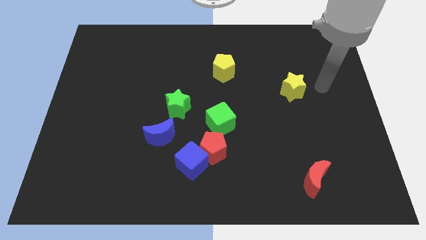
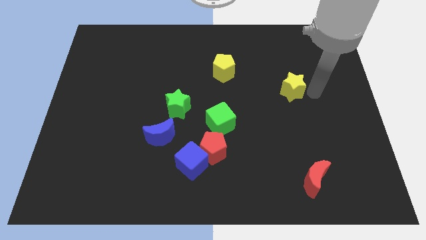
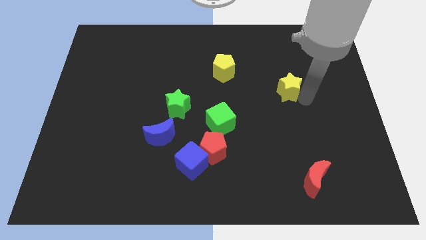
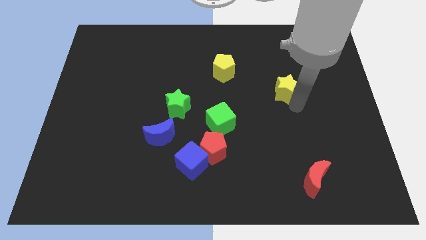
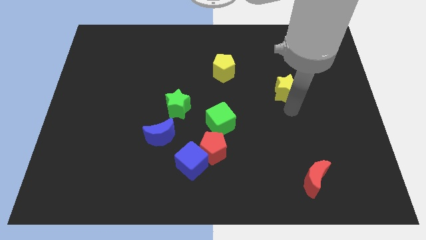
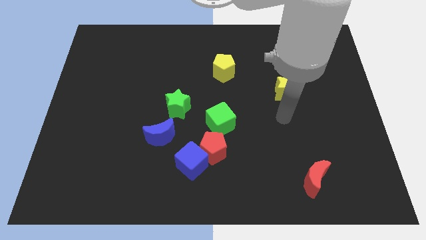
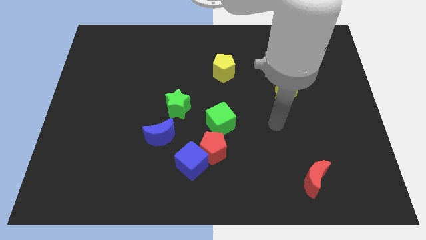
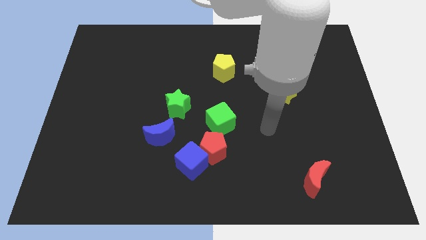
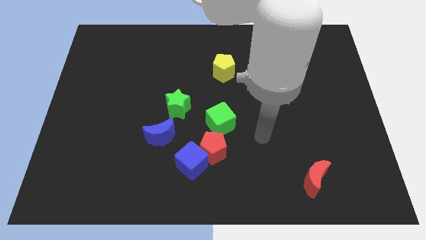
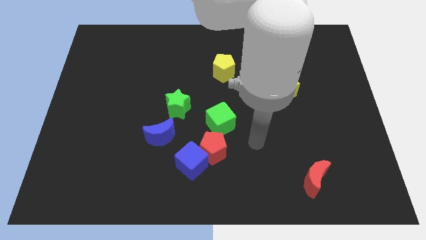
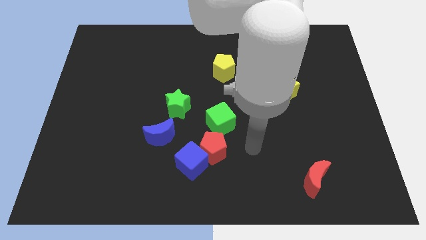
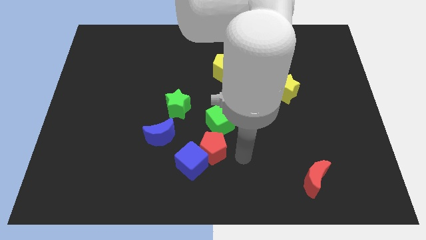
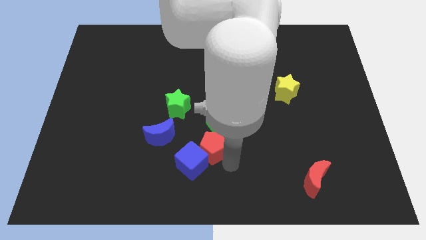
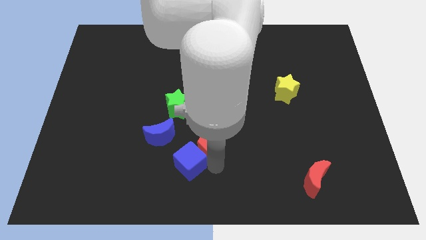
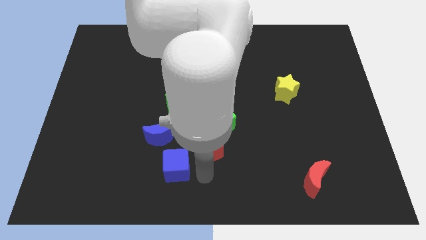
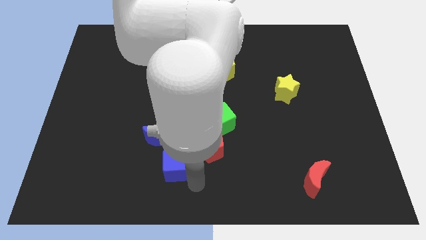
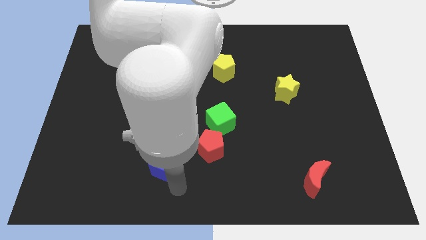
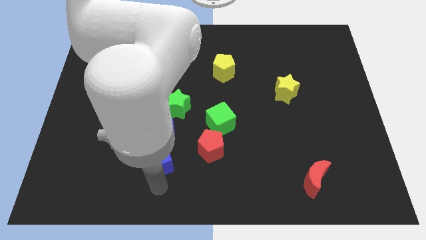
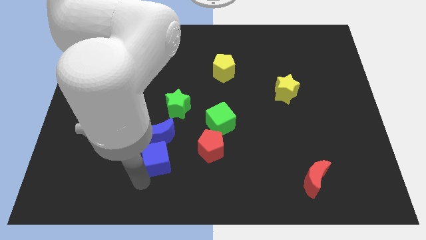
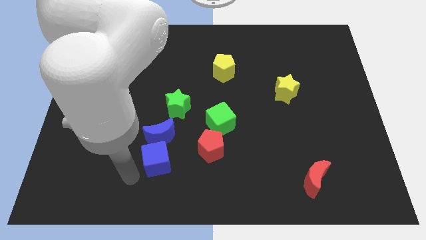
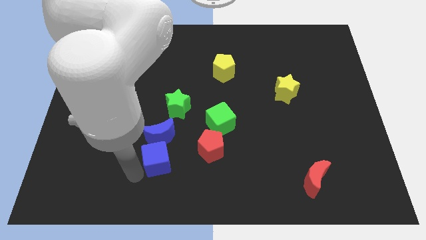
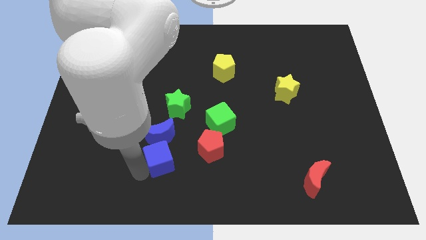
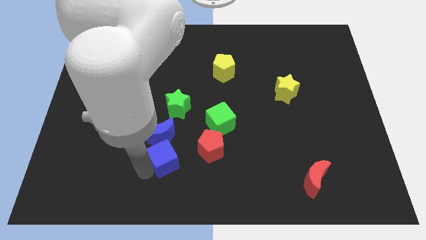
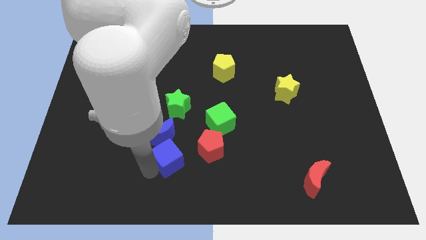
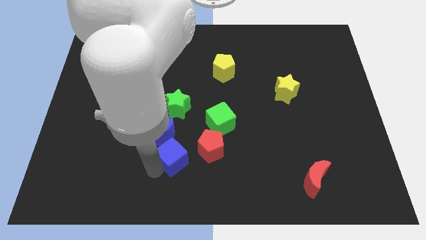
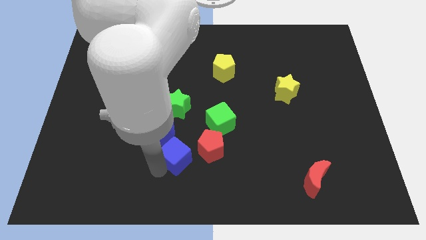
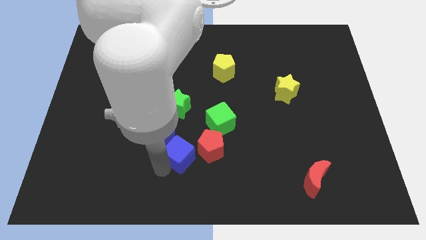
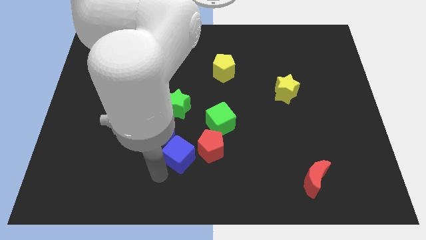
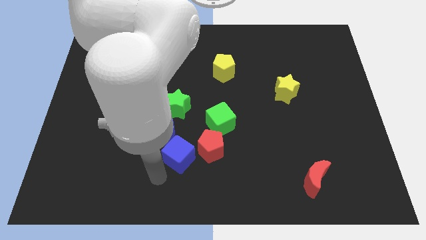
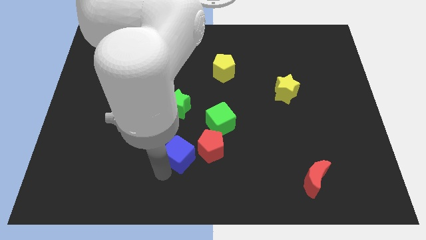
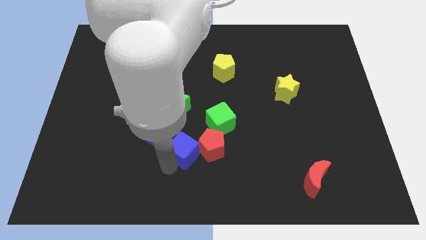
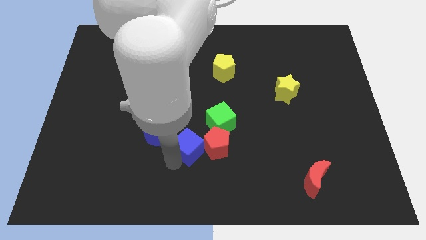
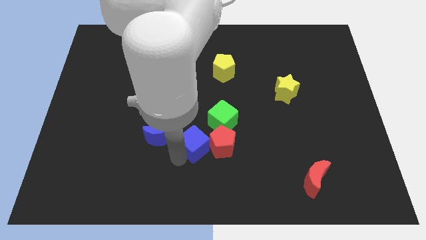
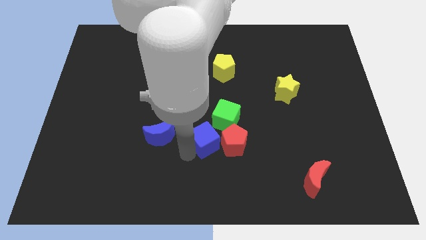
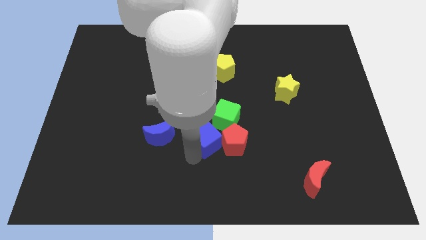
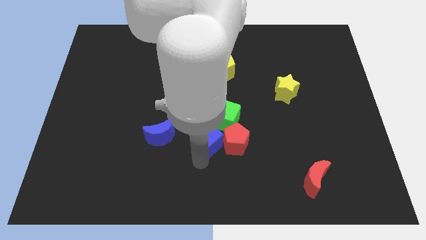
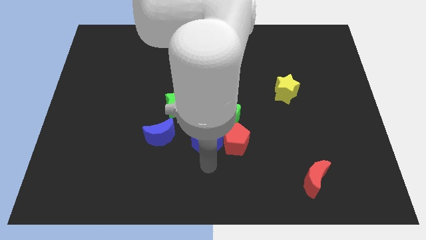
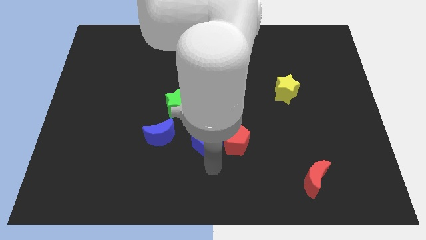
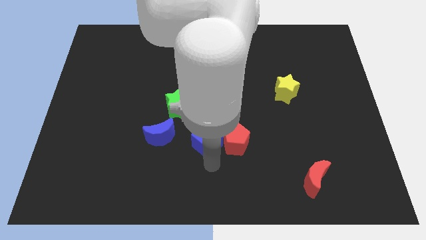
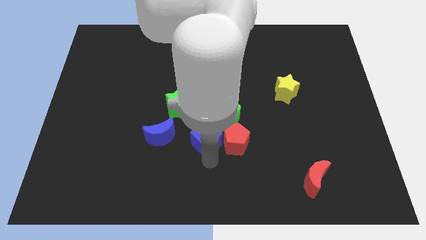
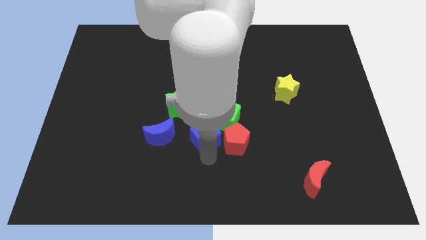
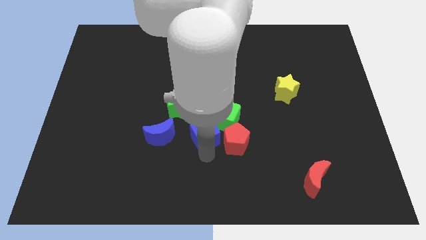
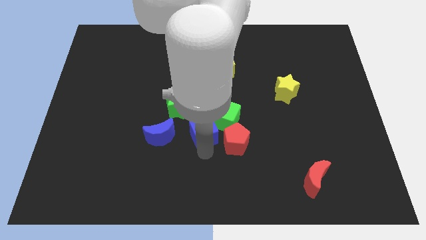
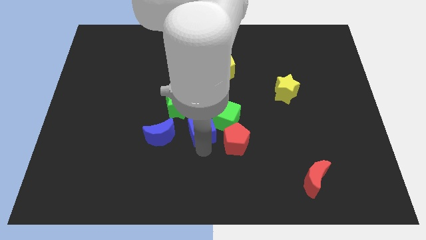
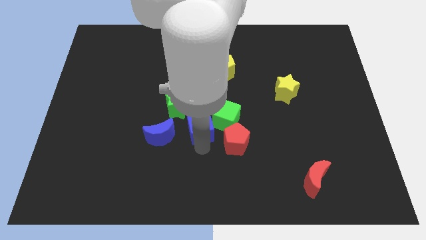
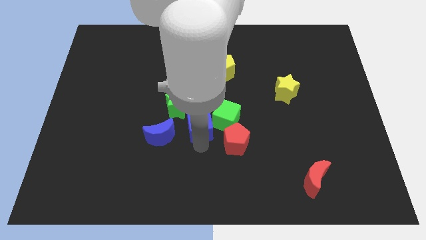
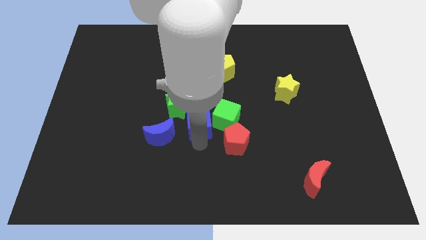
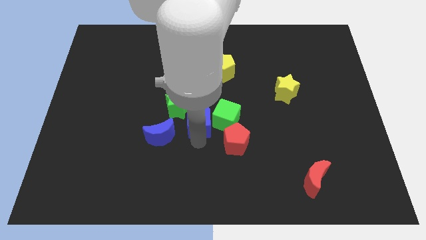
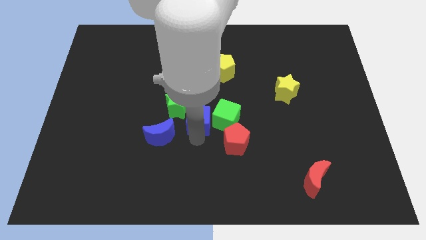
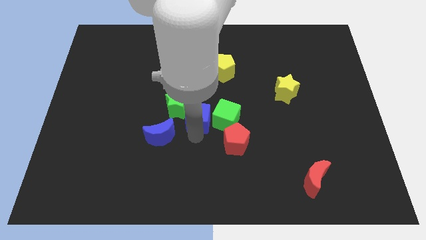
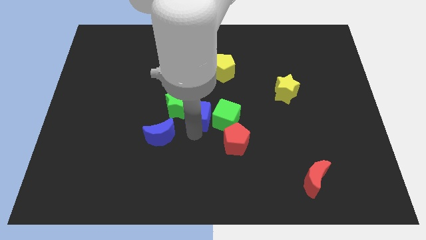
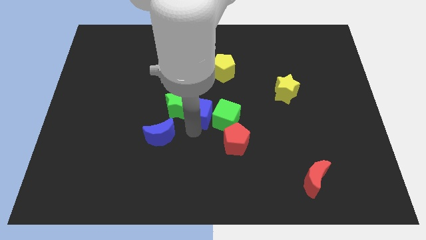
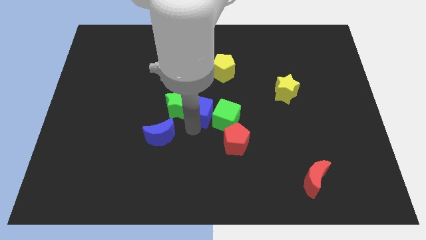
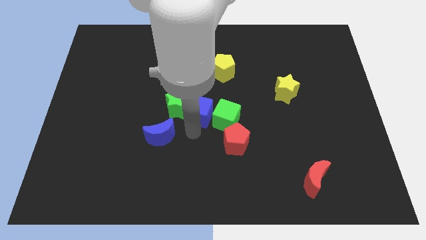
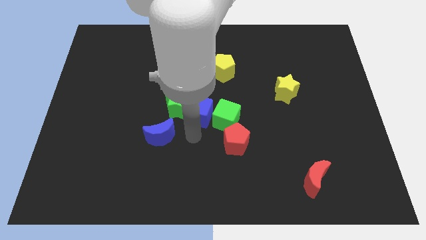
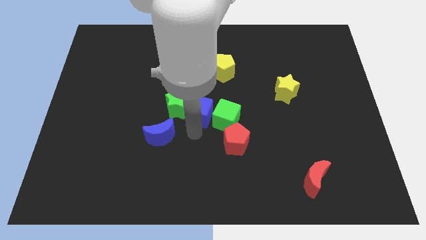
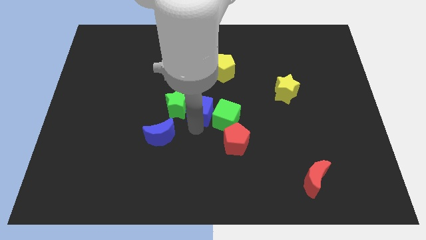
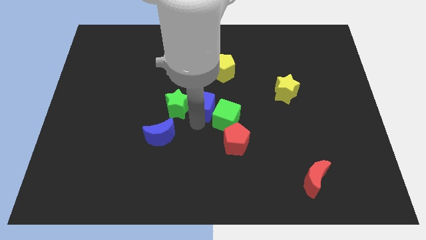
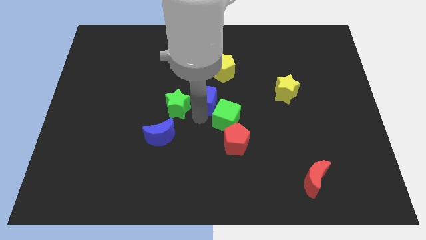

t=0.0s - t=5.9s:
put the blue cube to the bottom left of the yellow pentagon

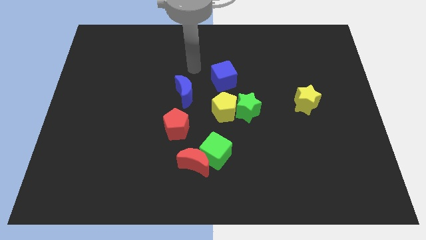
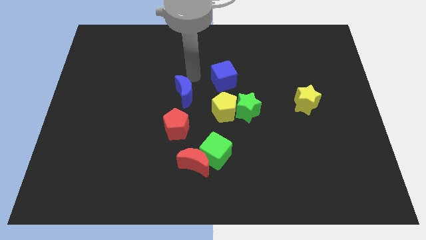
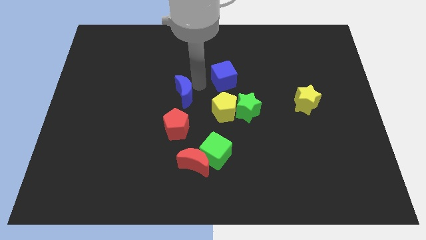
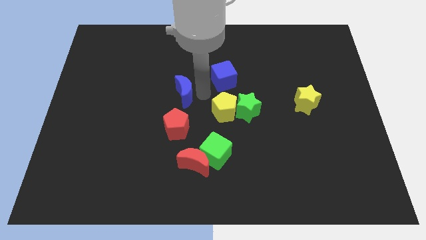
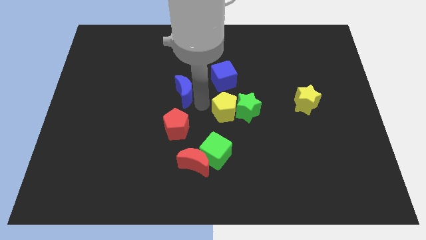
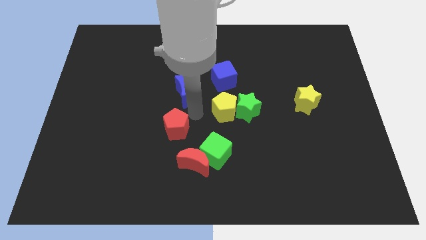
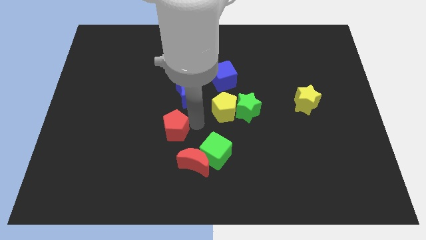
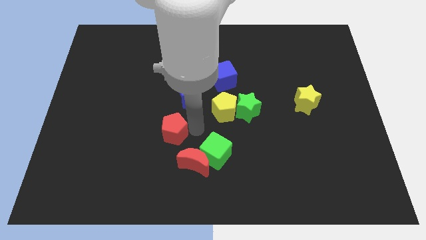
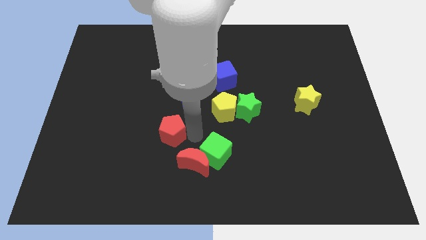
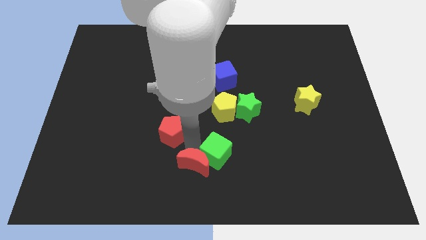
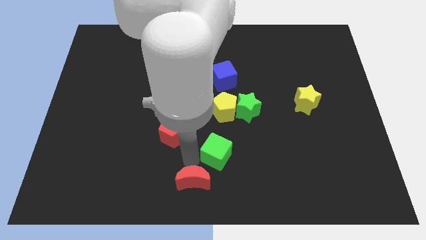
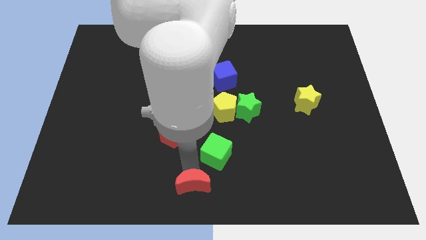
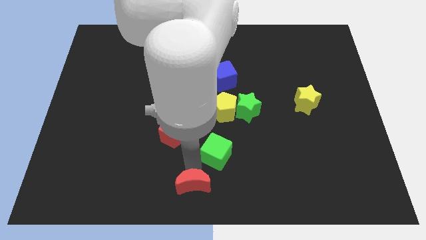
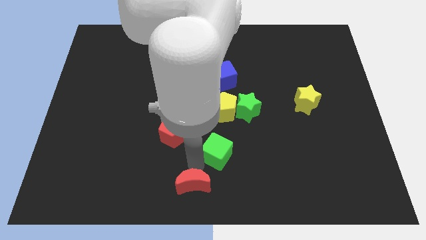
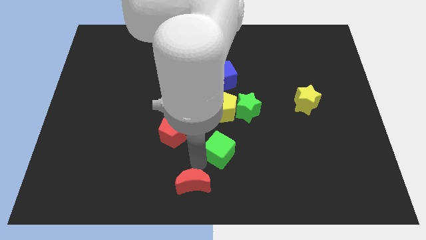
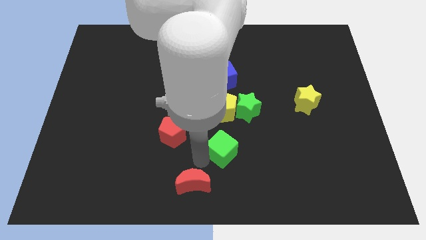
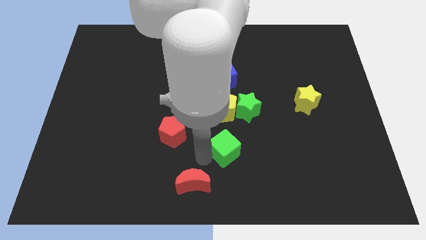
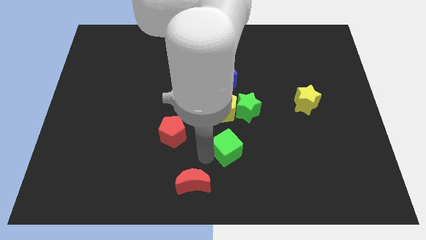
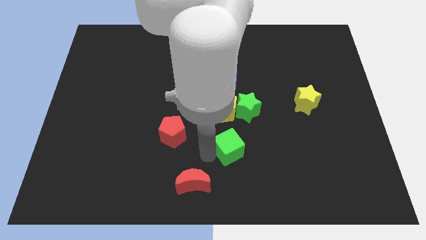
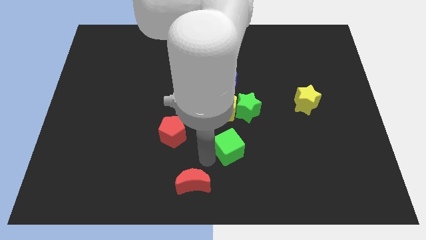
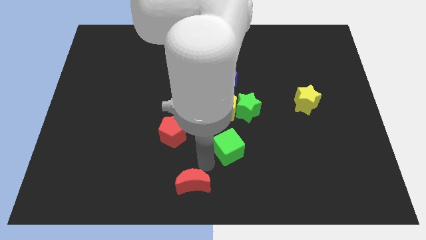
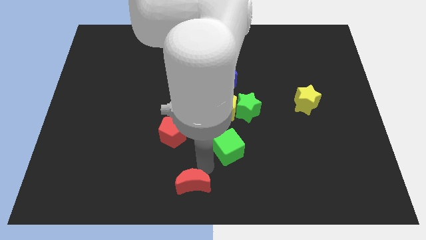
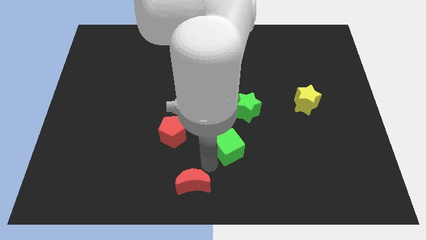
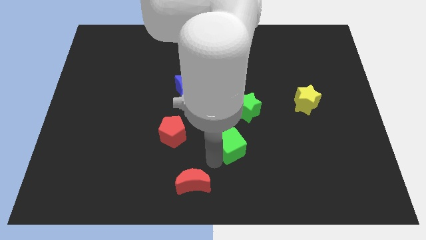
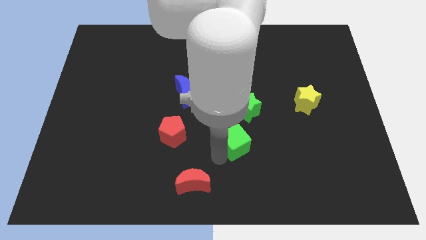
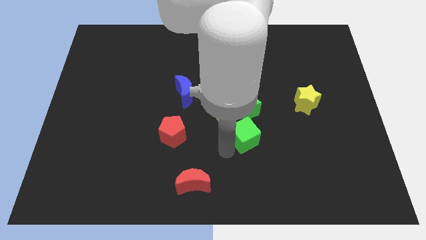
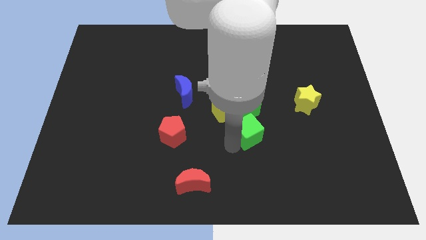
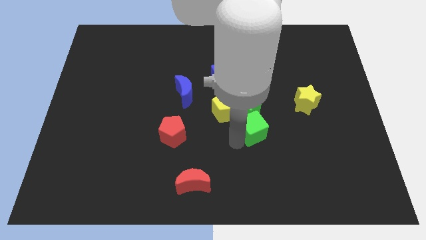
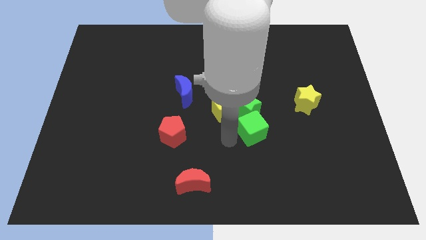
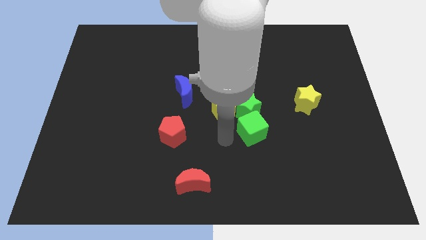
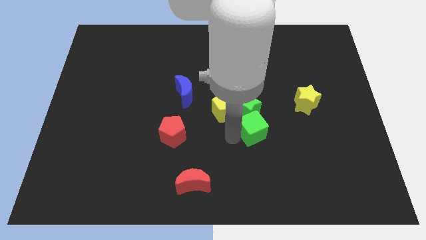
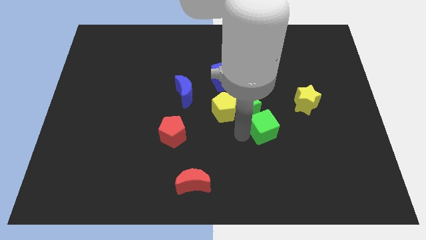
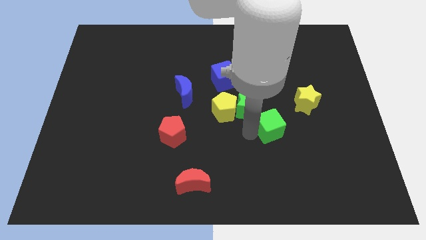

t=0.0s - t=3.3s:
move the green cube to the bottom left of the yellow star
